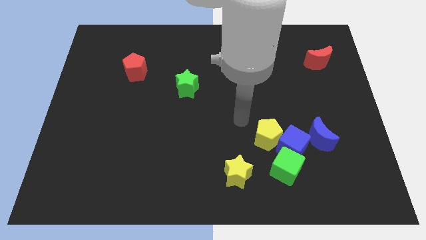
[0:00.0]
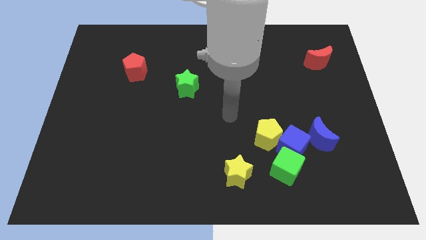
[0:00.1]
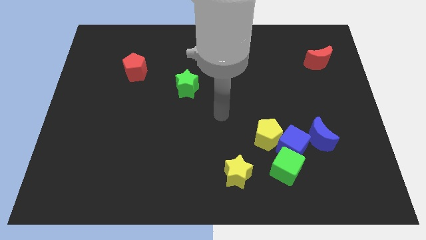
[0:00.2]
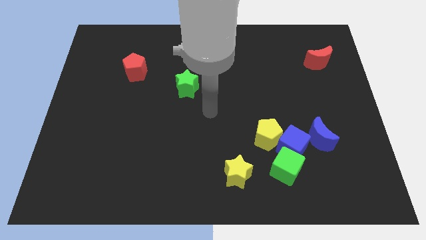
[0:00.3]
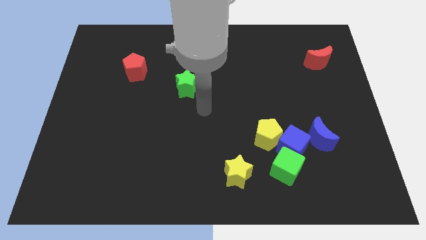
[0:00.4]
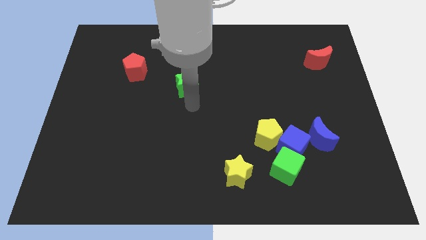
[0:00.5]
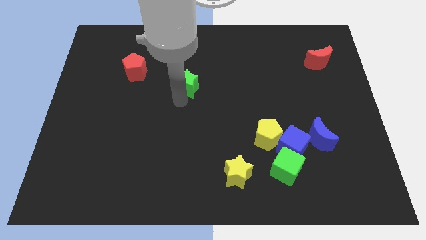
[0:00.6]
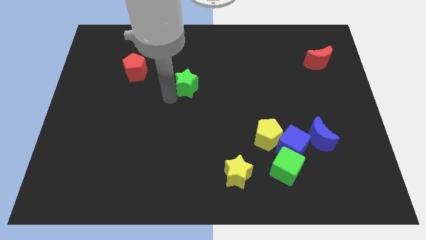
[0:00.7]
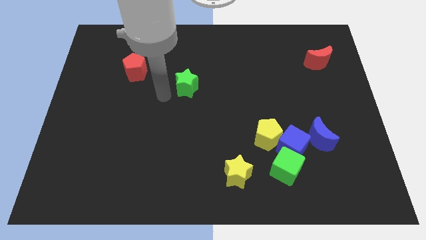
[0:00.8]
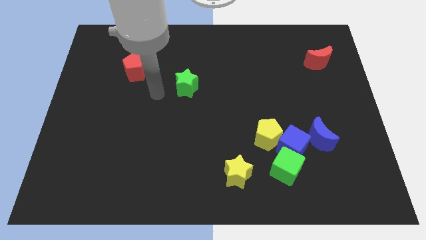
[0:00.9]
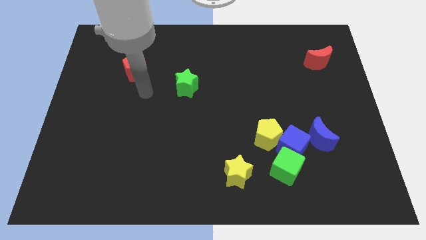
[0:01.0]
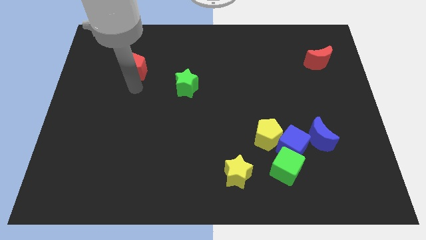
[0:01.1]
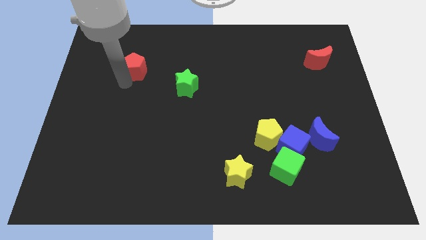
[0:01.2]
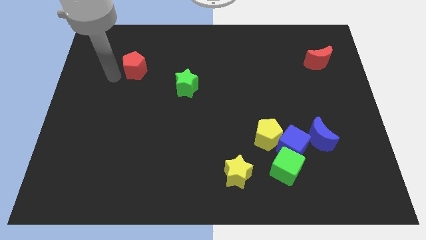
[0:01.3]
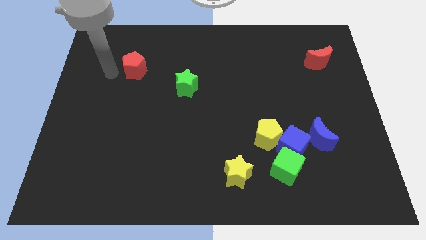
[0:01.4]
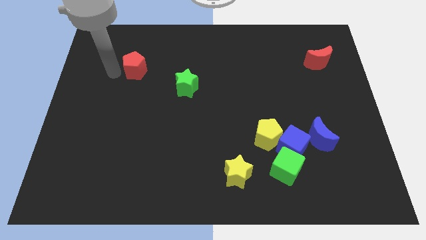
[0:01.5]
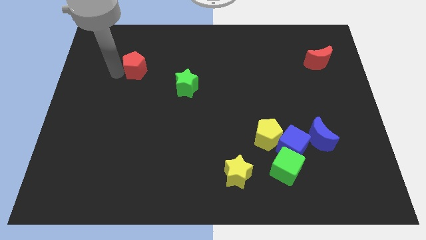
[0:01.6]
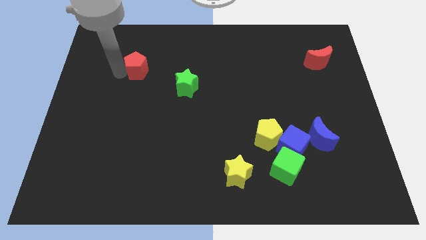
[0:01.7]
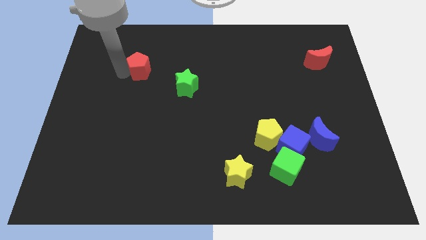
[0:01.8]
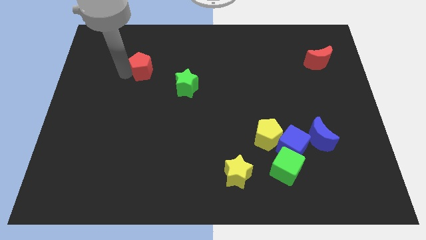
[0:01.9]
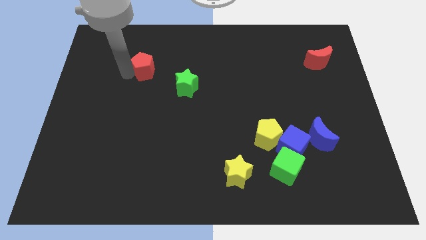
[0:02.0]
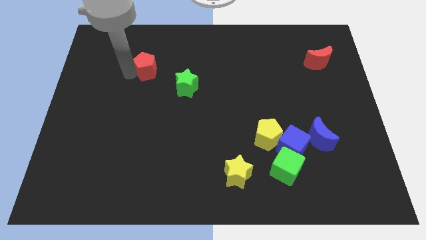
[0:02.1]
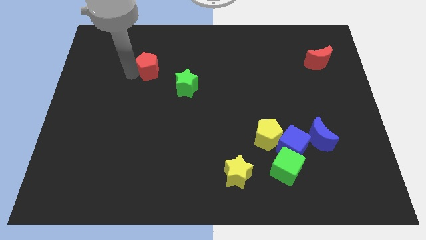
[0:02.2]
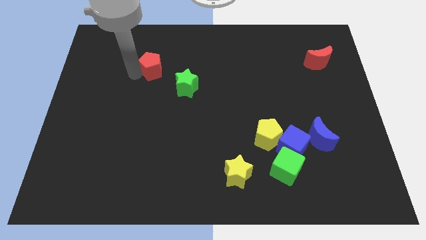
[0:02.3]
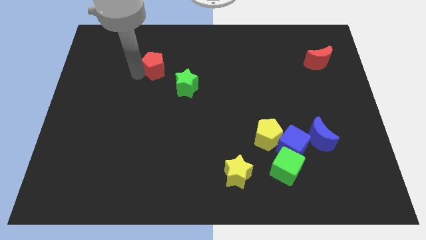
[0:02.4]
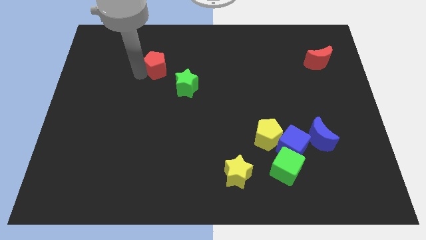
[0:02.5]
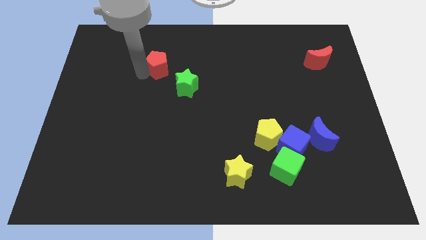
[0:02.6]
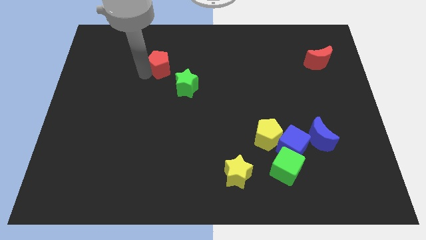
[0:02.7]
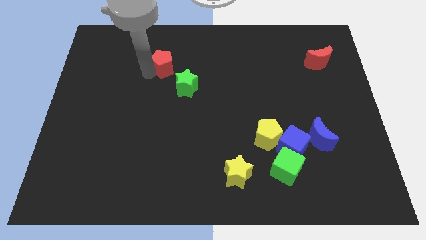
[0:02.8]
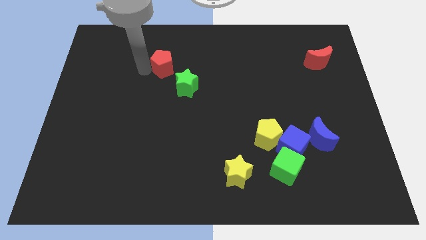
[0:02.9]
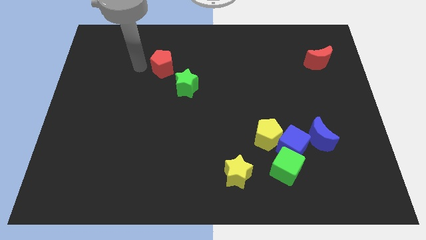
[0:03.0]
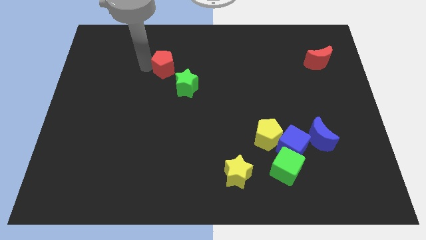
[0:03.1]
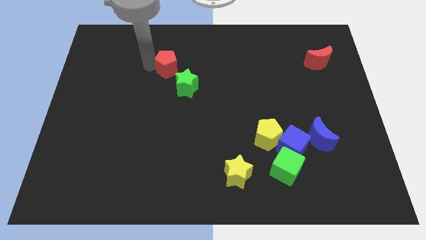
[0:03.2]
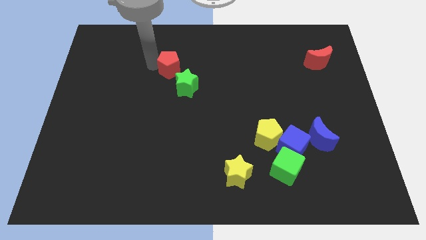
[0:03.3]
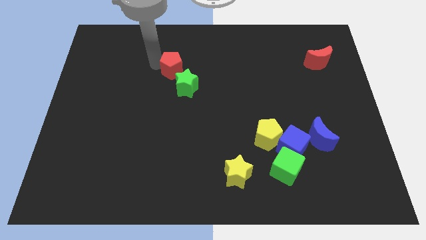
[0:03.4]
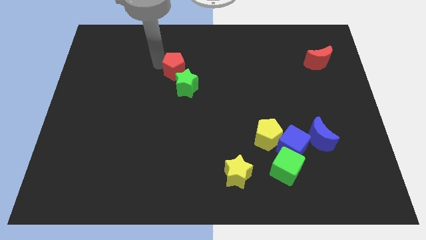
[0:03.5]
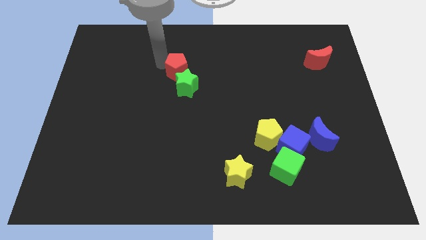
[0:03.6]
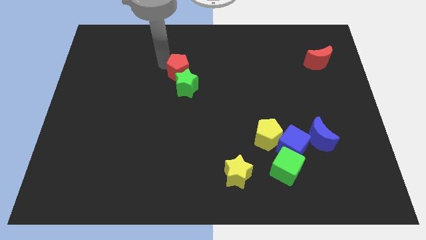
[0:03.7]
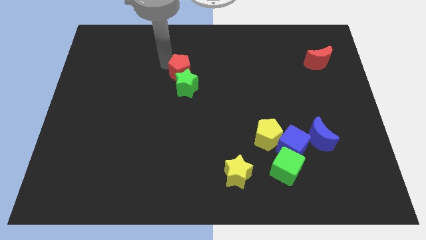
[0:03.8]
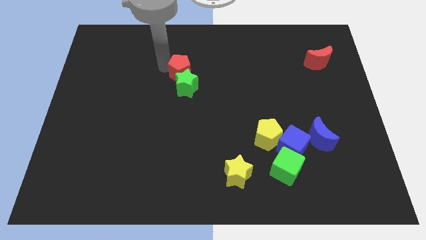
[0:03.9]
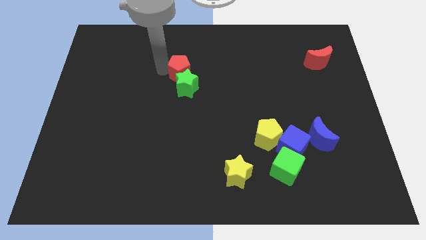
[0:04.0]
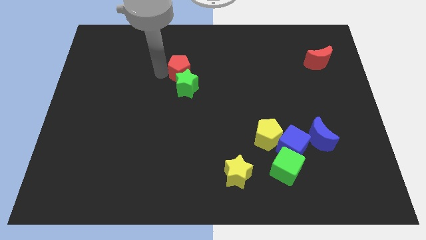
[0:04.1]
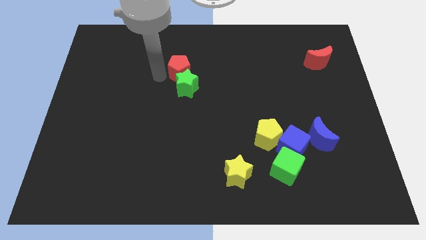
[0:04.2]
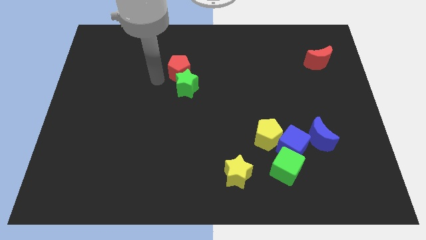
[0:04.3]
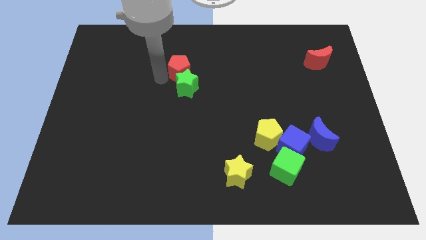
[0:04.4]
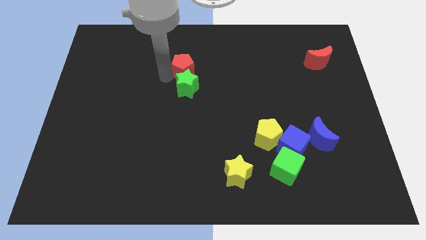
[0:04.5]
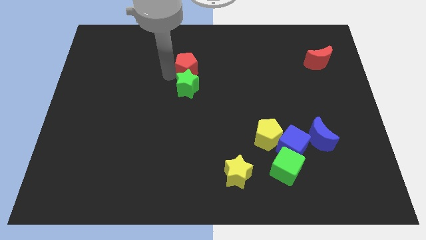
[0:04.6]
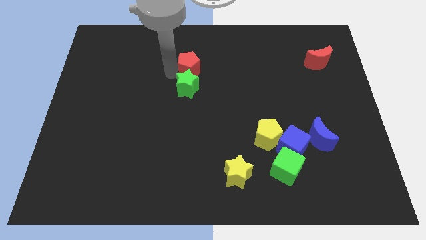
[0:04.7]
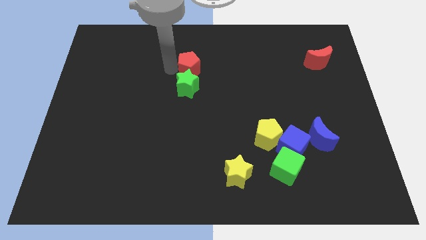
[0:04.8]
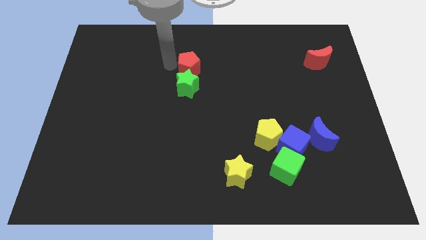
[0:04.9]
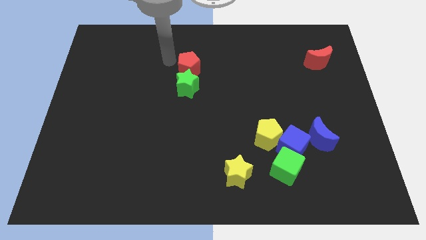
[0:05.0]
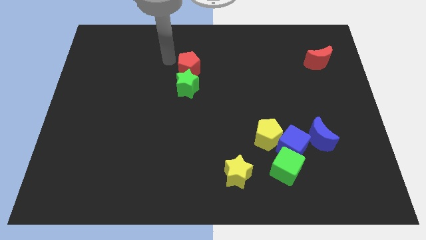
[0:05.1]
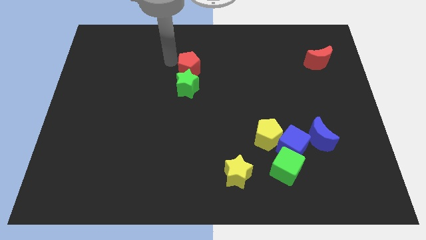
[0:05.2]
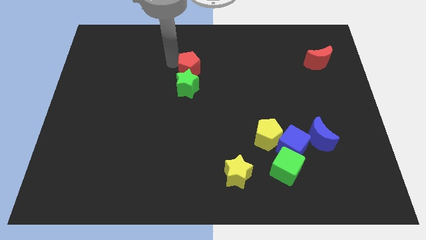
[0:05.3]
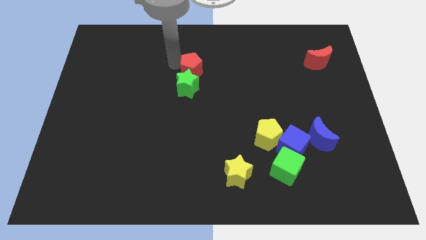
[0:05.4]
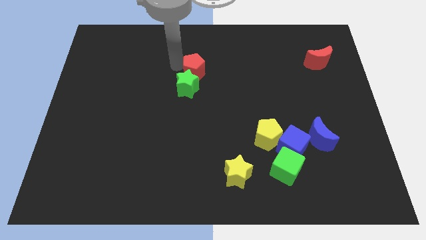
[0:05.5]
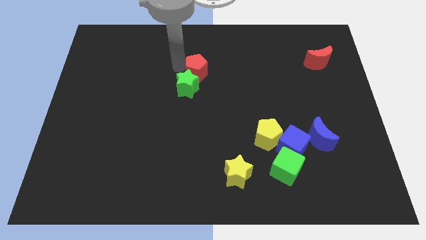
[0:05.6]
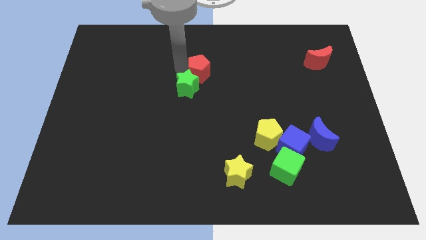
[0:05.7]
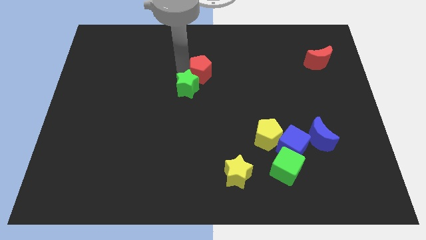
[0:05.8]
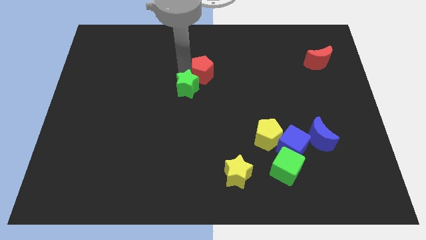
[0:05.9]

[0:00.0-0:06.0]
slide the red pentagon to the right side of the green star

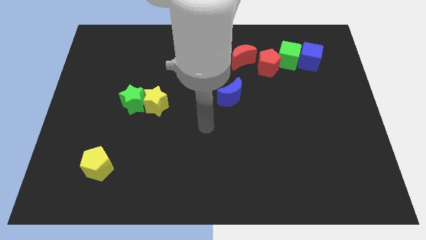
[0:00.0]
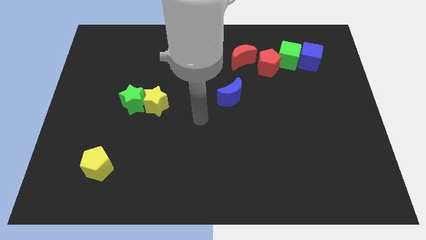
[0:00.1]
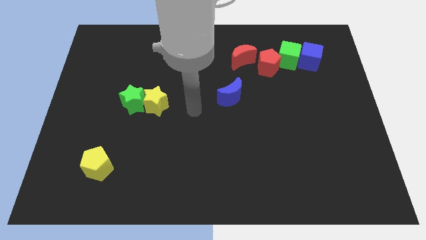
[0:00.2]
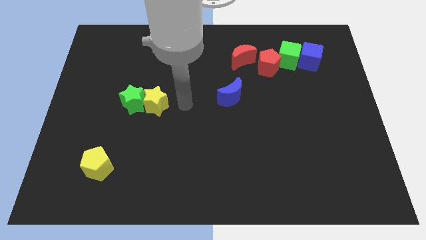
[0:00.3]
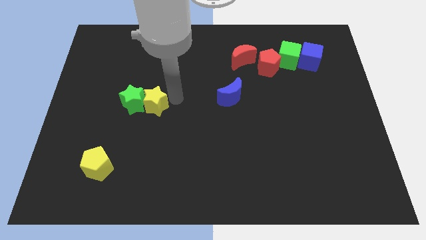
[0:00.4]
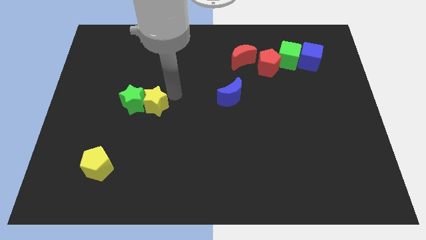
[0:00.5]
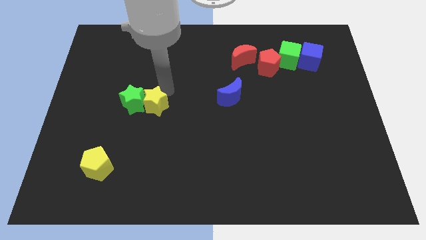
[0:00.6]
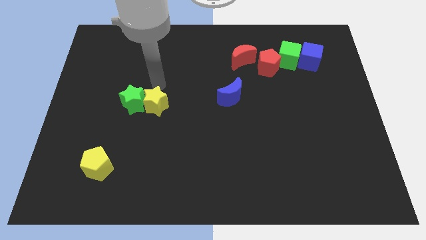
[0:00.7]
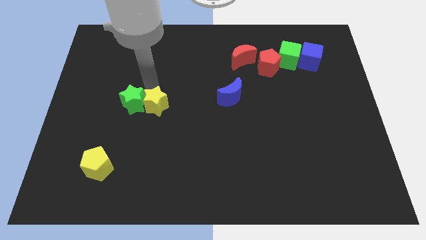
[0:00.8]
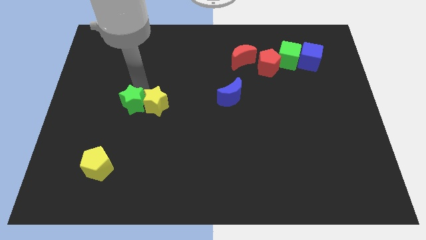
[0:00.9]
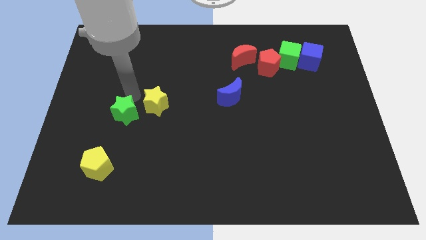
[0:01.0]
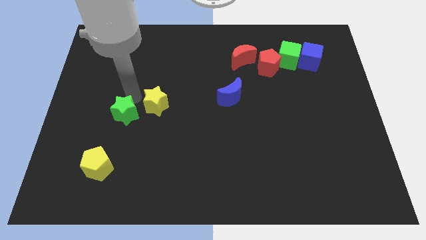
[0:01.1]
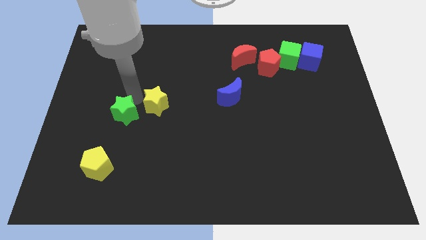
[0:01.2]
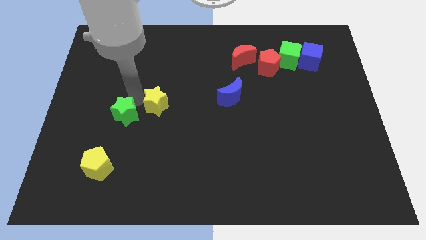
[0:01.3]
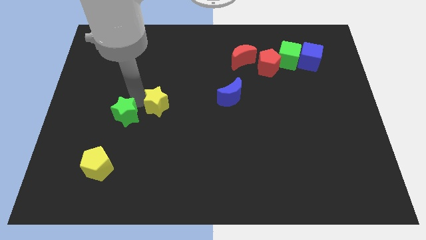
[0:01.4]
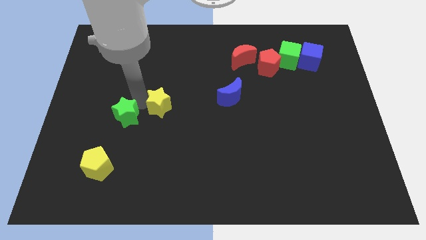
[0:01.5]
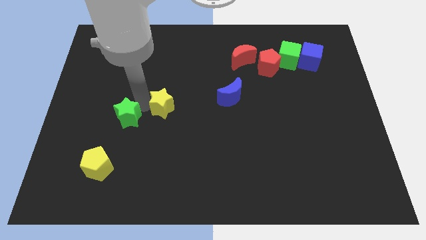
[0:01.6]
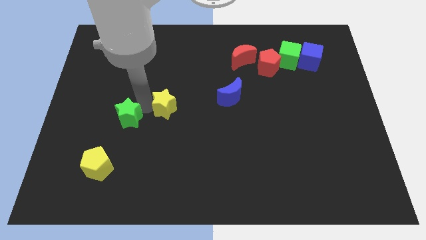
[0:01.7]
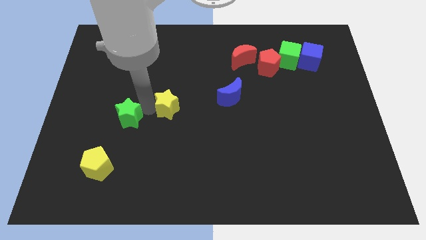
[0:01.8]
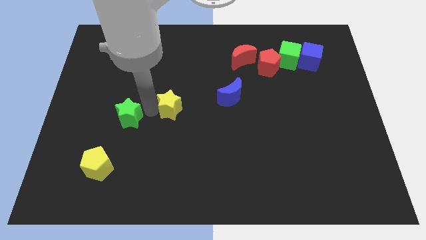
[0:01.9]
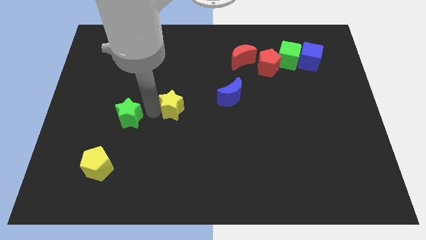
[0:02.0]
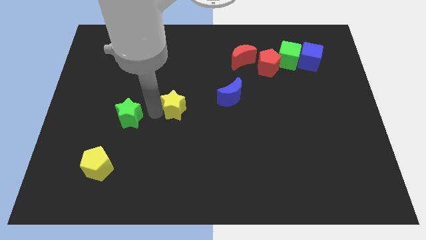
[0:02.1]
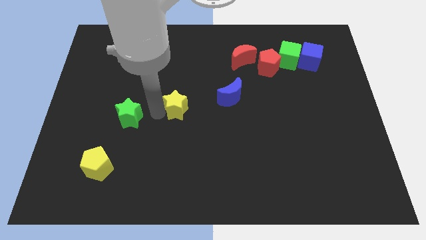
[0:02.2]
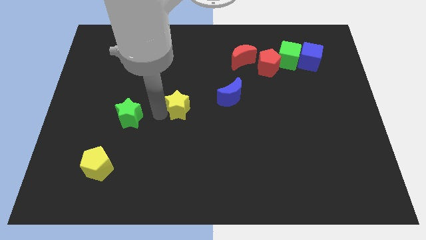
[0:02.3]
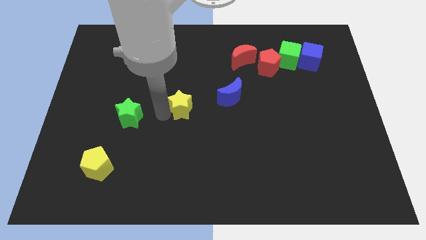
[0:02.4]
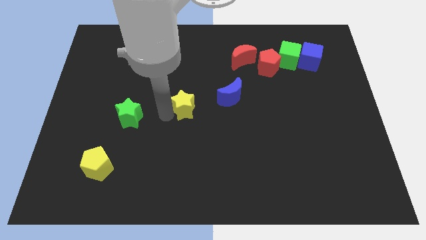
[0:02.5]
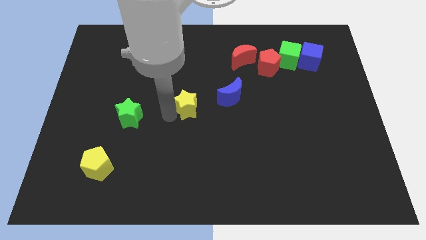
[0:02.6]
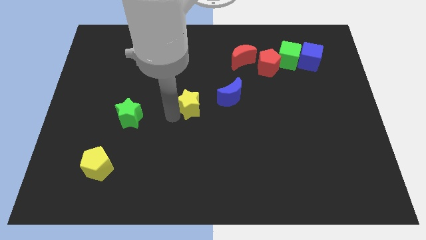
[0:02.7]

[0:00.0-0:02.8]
put the yellow star diagonally down and to the left of the blue moon
